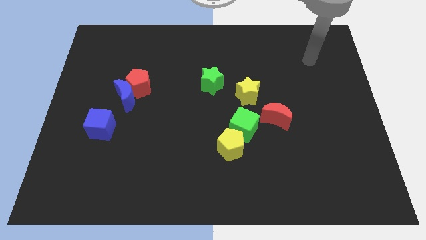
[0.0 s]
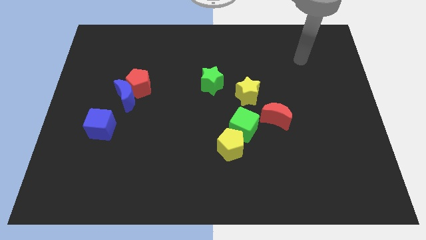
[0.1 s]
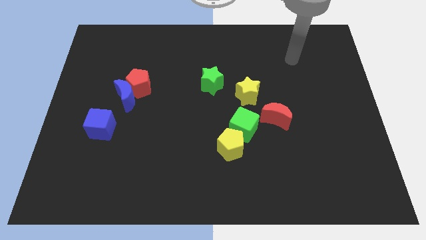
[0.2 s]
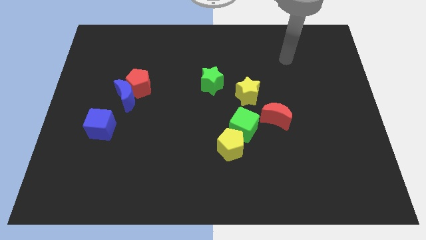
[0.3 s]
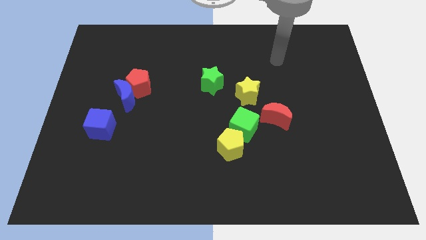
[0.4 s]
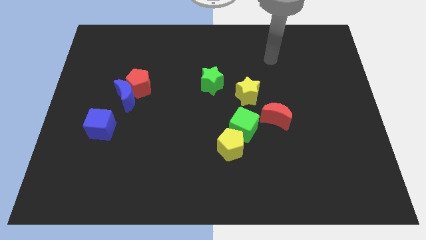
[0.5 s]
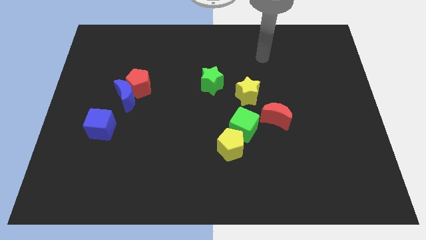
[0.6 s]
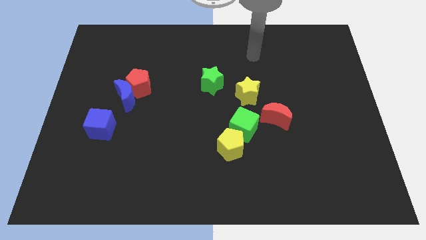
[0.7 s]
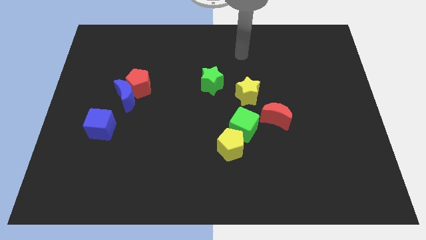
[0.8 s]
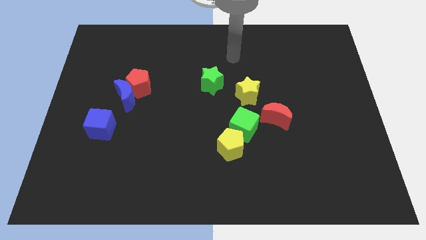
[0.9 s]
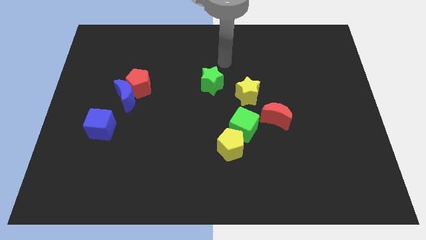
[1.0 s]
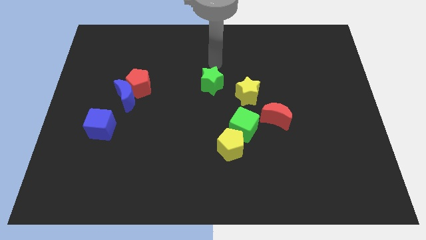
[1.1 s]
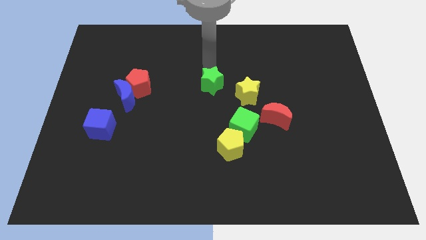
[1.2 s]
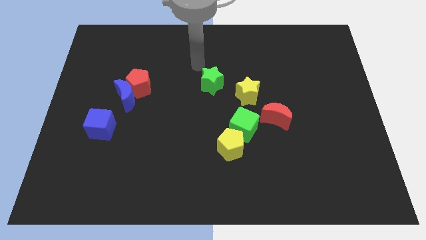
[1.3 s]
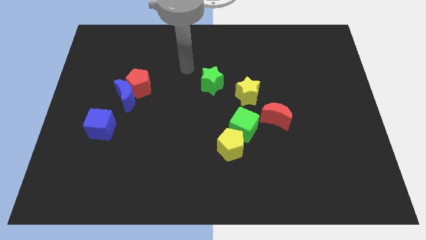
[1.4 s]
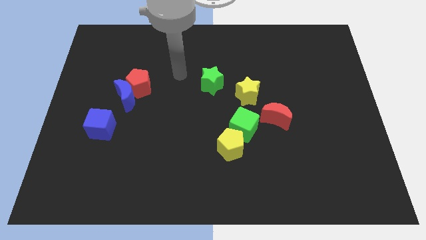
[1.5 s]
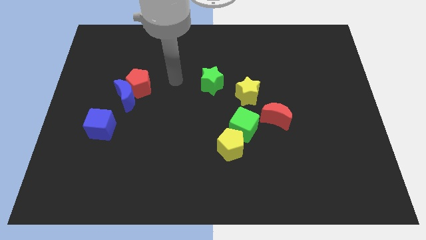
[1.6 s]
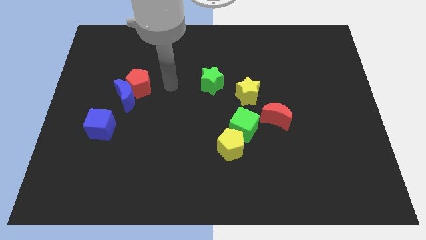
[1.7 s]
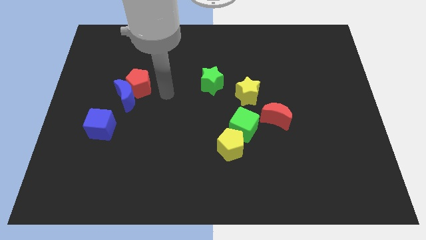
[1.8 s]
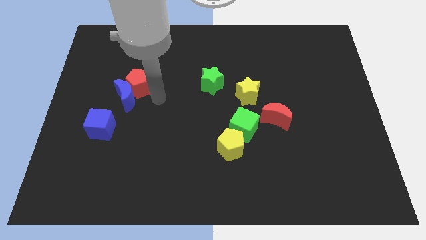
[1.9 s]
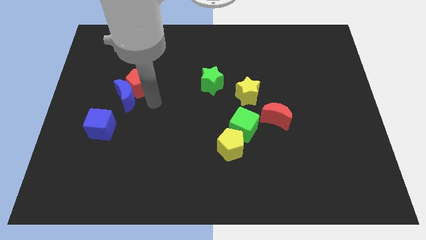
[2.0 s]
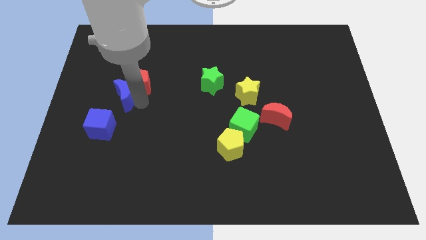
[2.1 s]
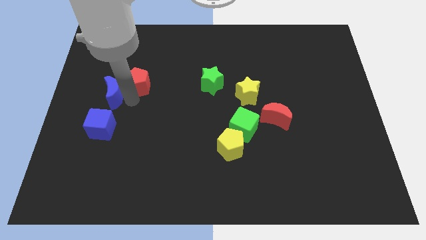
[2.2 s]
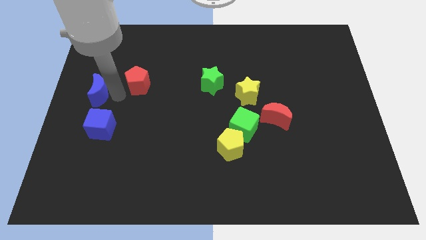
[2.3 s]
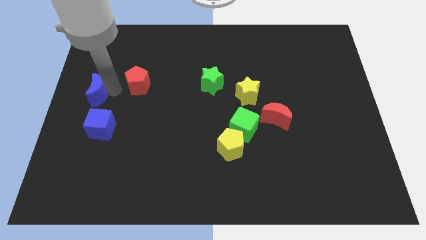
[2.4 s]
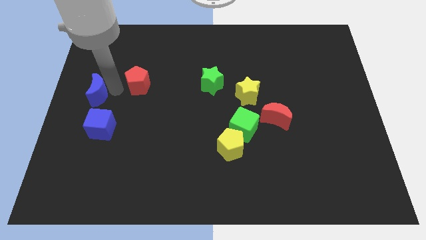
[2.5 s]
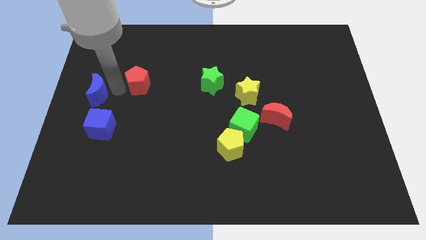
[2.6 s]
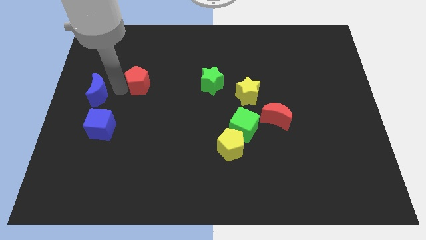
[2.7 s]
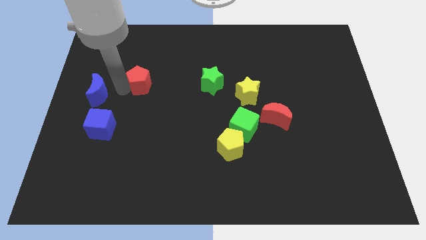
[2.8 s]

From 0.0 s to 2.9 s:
move the red pentagon away from the blue moon

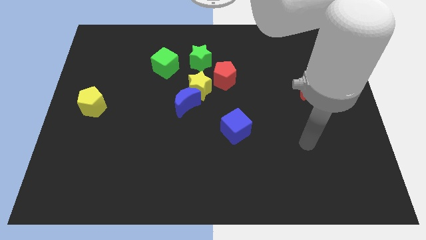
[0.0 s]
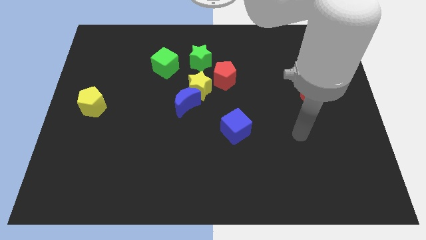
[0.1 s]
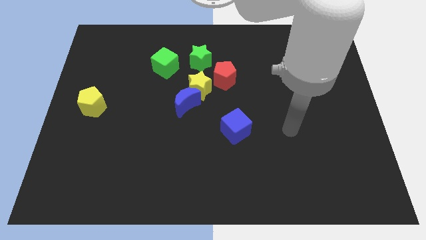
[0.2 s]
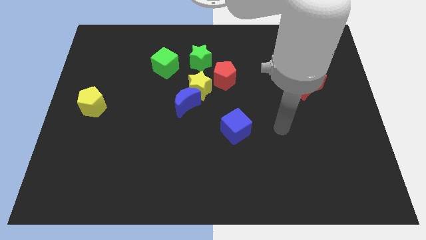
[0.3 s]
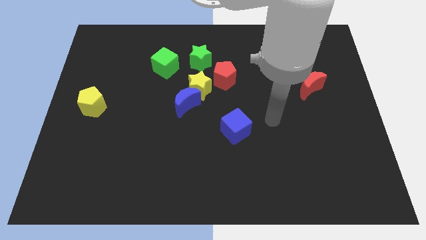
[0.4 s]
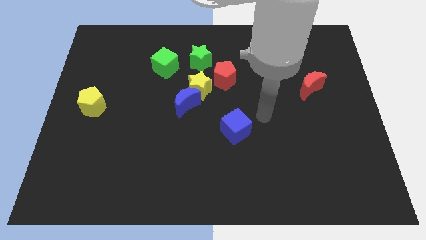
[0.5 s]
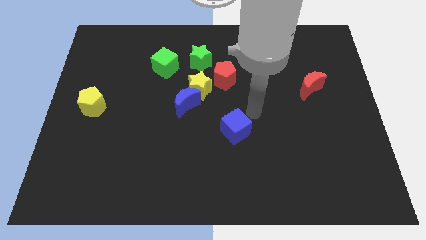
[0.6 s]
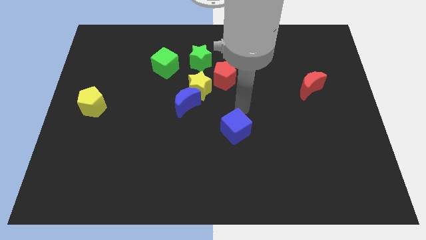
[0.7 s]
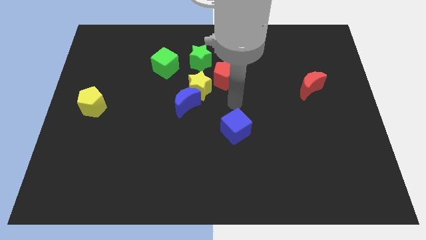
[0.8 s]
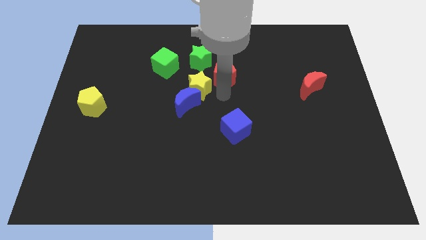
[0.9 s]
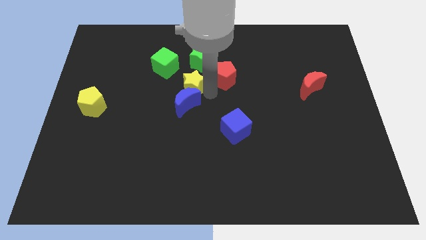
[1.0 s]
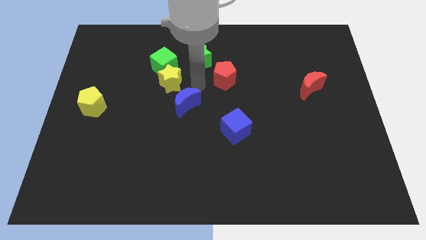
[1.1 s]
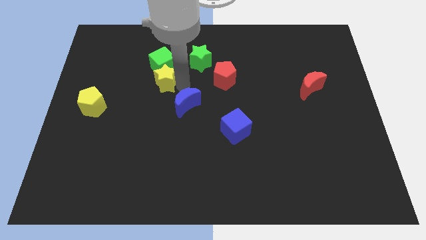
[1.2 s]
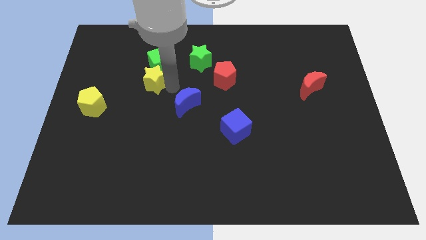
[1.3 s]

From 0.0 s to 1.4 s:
move the blue moon away from the yellow star

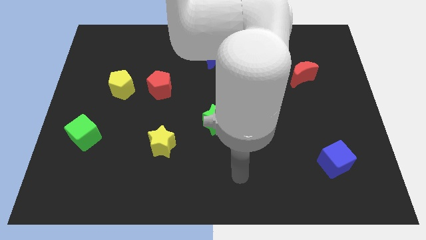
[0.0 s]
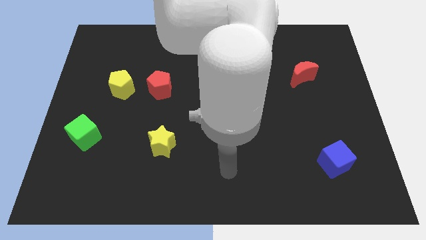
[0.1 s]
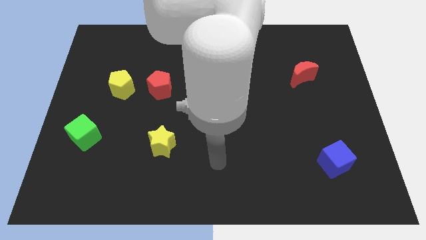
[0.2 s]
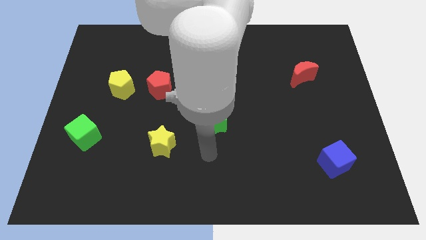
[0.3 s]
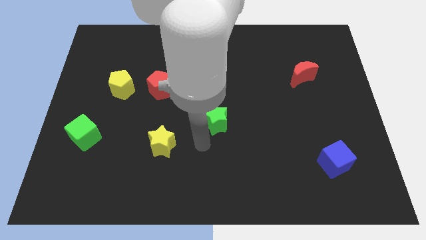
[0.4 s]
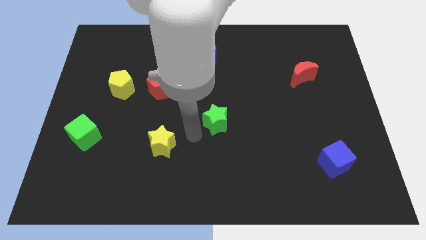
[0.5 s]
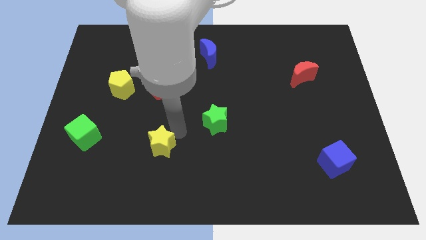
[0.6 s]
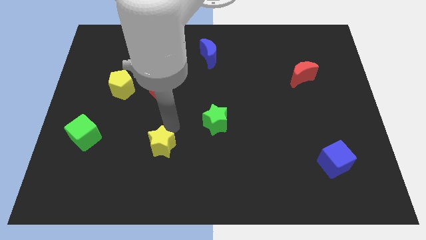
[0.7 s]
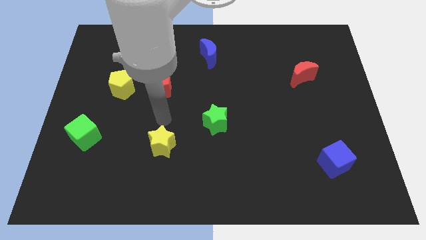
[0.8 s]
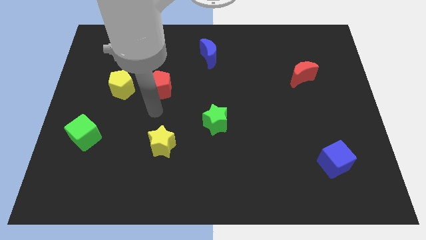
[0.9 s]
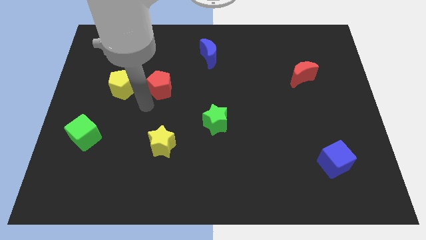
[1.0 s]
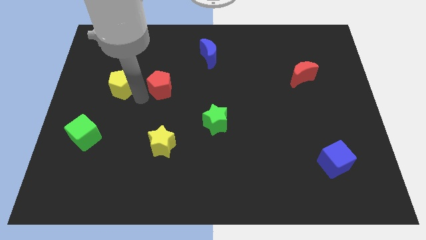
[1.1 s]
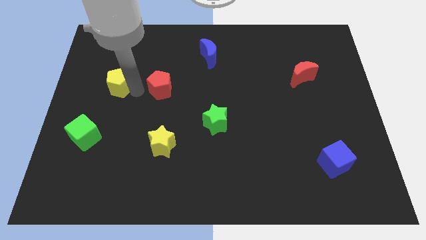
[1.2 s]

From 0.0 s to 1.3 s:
move the red pentagon away from the yellow pentagon

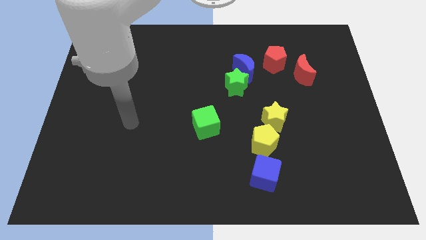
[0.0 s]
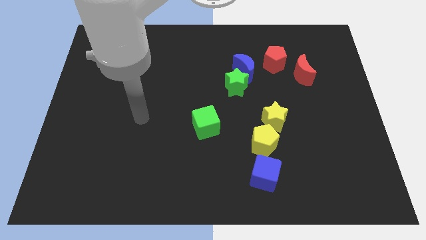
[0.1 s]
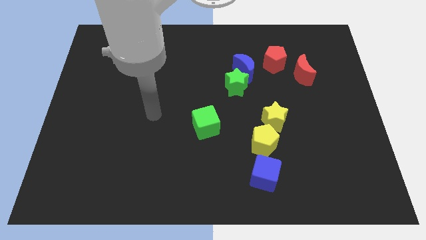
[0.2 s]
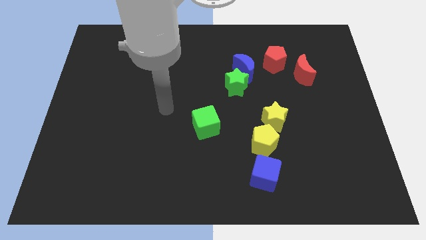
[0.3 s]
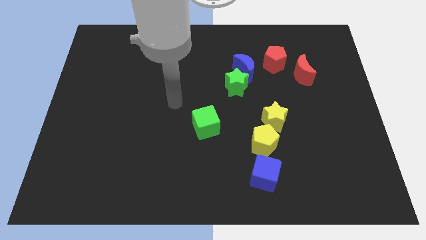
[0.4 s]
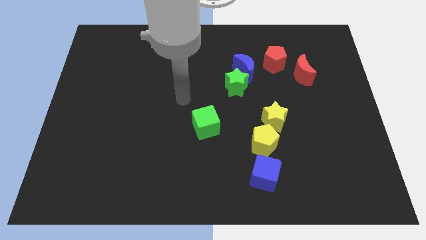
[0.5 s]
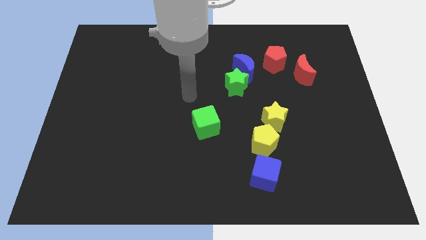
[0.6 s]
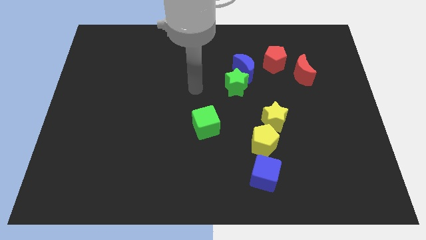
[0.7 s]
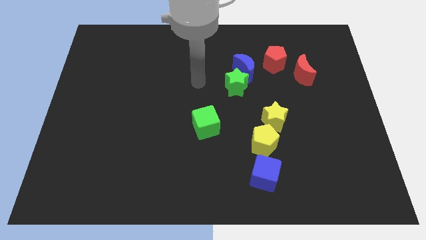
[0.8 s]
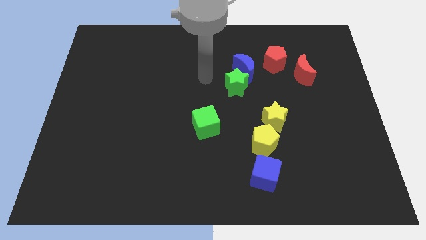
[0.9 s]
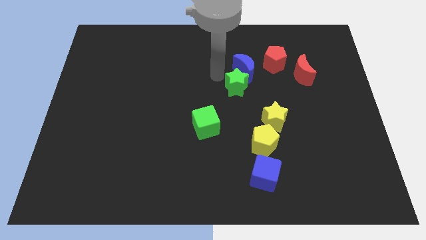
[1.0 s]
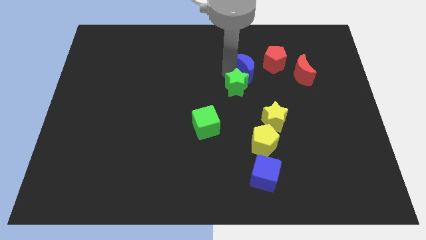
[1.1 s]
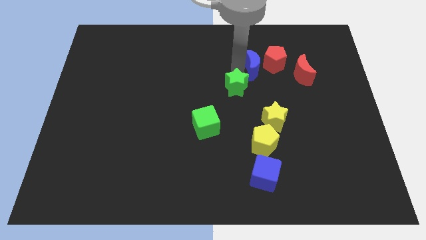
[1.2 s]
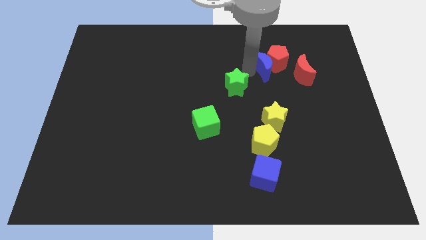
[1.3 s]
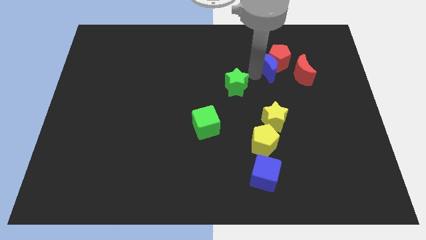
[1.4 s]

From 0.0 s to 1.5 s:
separate the green star from the blue moon

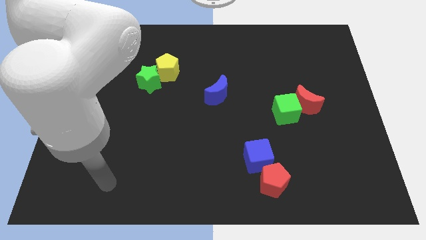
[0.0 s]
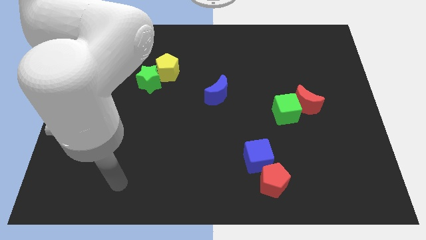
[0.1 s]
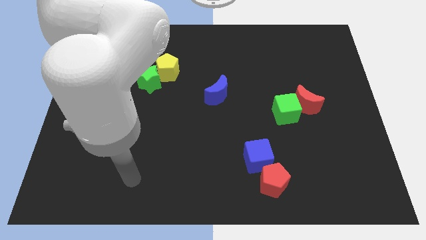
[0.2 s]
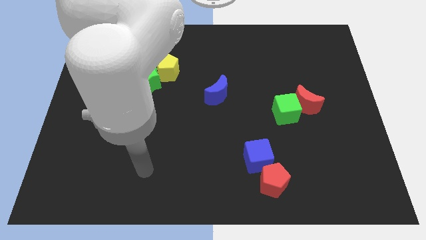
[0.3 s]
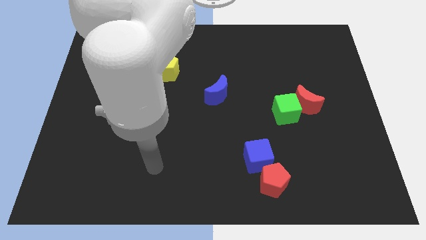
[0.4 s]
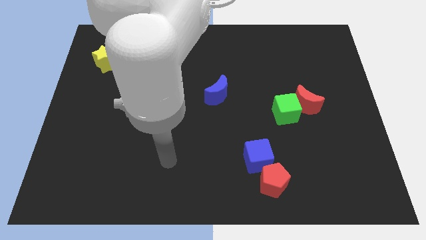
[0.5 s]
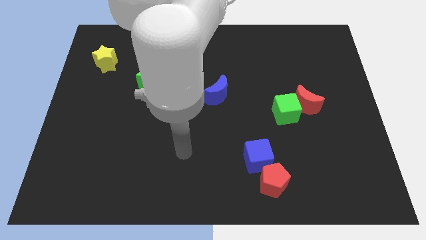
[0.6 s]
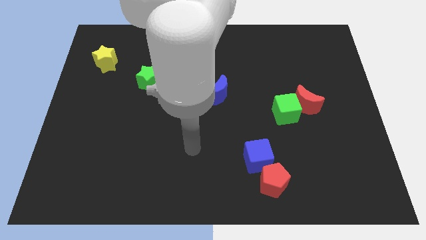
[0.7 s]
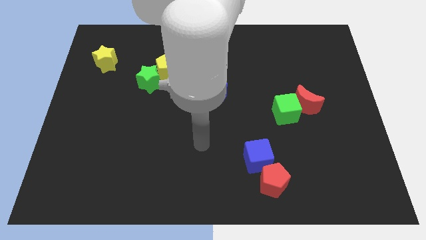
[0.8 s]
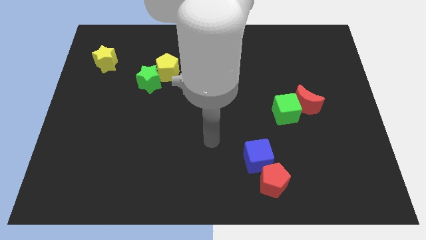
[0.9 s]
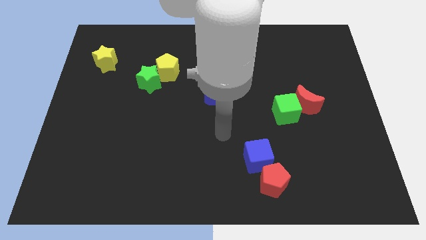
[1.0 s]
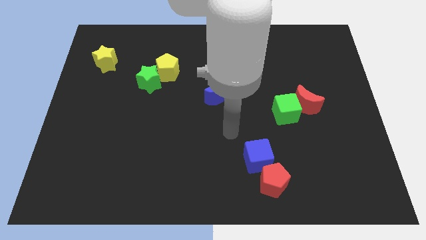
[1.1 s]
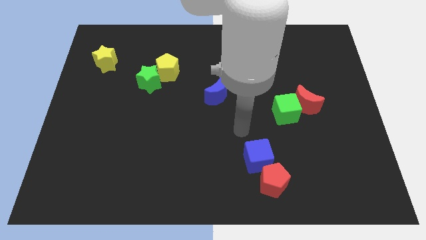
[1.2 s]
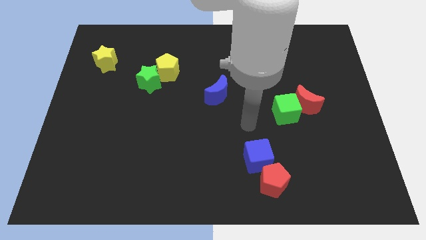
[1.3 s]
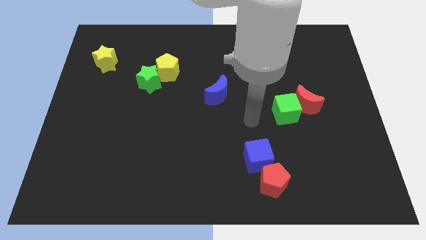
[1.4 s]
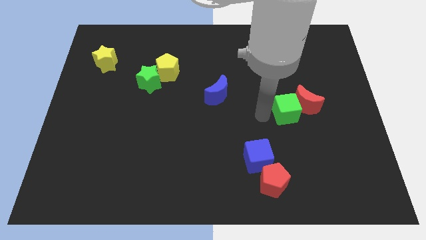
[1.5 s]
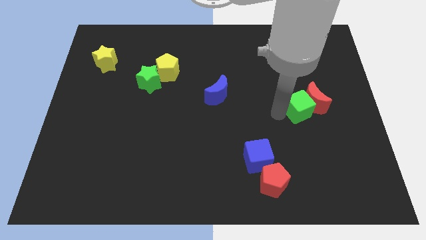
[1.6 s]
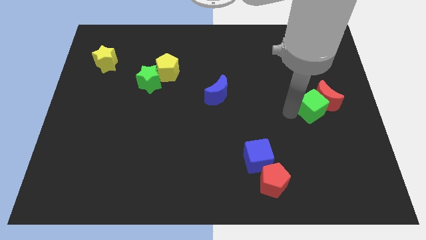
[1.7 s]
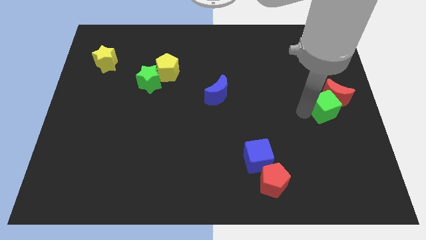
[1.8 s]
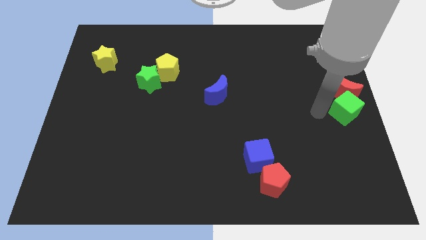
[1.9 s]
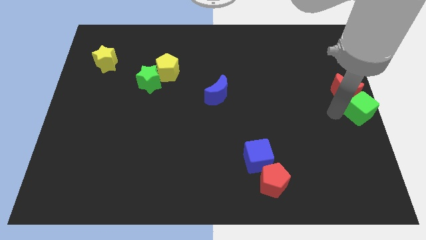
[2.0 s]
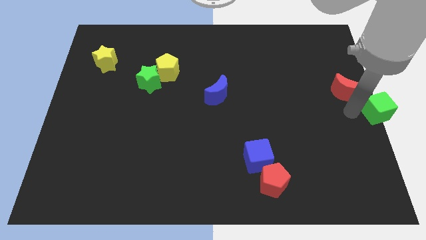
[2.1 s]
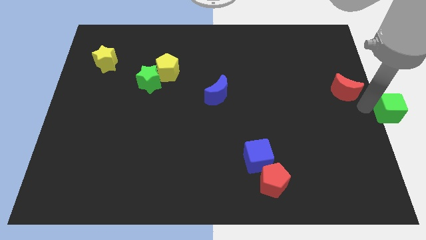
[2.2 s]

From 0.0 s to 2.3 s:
separate the red moon from the green cube
